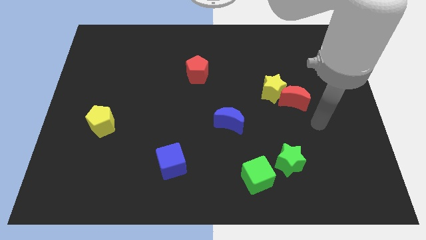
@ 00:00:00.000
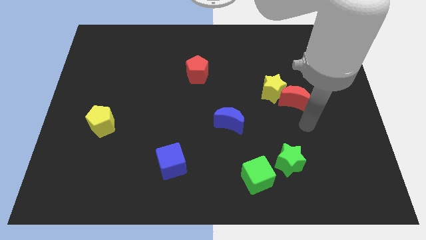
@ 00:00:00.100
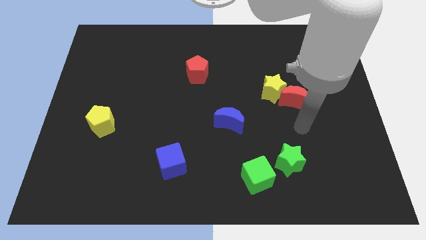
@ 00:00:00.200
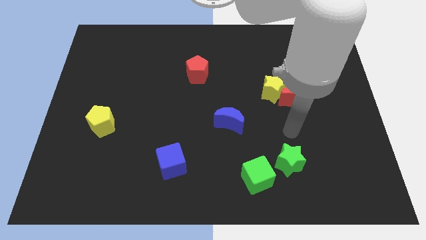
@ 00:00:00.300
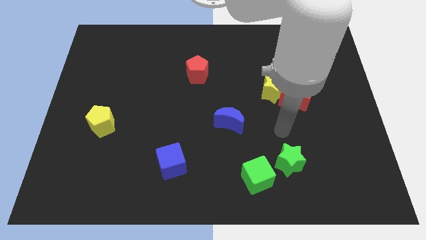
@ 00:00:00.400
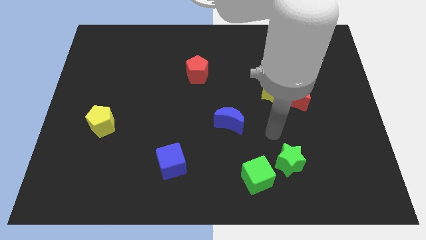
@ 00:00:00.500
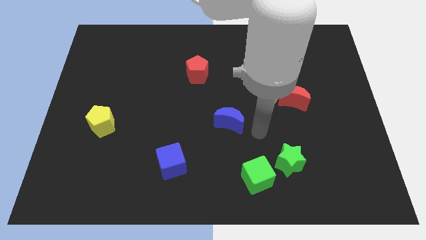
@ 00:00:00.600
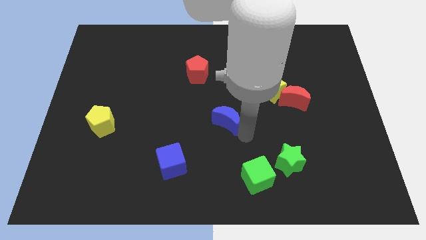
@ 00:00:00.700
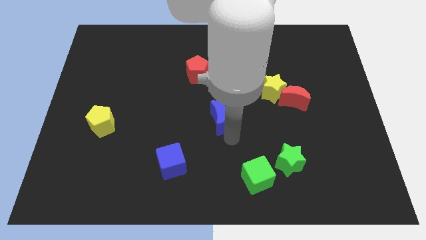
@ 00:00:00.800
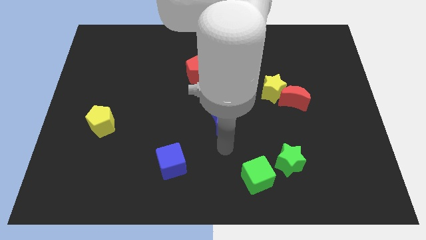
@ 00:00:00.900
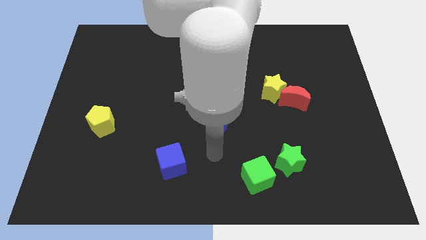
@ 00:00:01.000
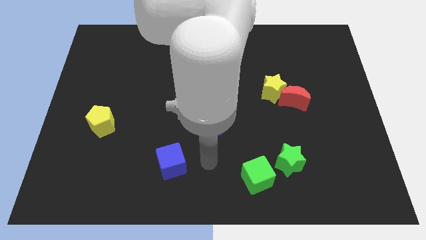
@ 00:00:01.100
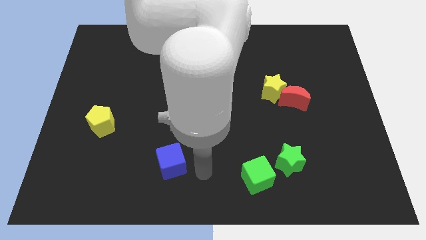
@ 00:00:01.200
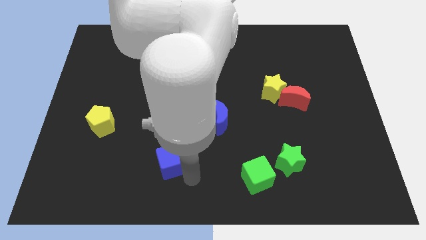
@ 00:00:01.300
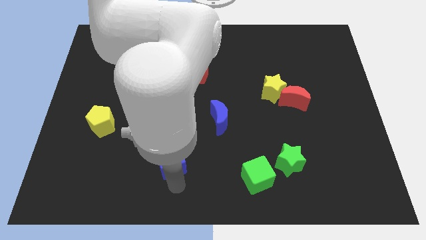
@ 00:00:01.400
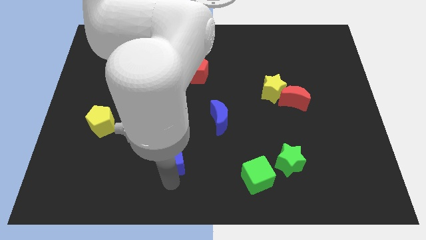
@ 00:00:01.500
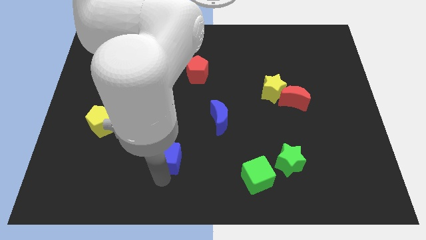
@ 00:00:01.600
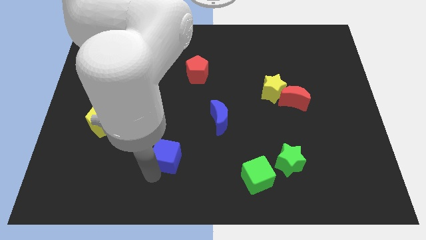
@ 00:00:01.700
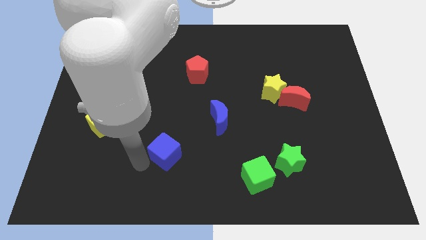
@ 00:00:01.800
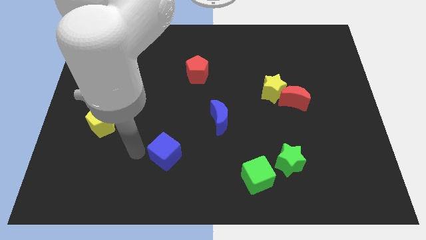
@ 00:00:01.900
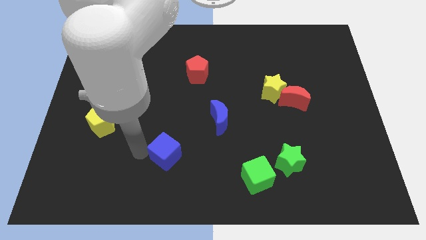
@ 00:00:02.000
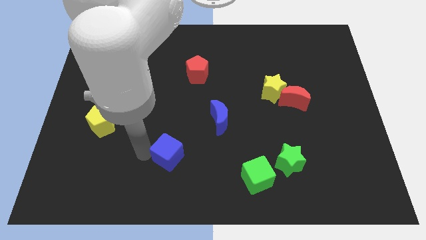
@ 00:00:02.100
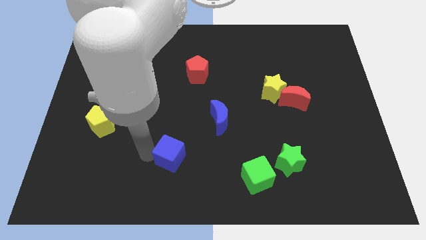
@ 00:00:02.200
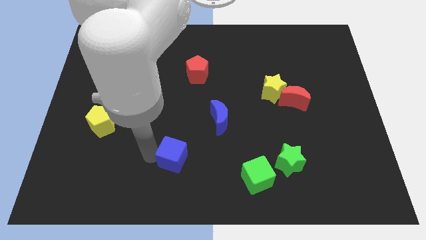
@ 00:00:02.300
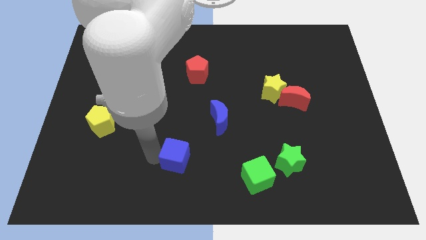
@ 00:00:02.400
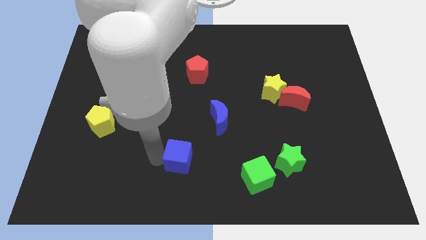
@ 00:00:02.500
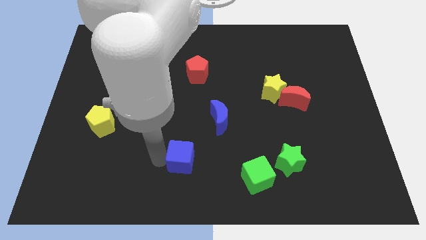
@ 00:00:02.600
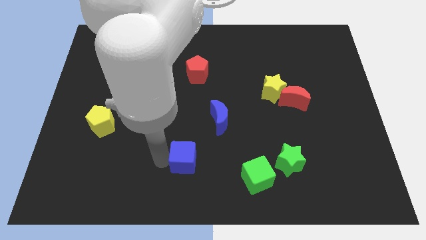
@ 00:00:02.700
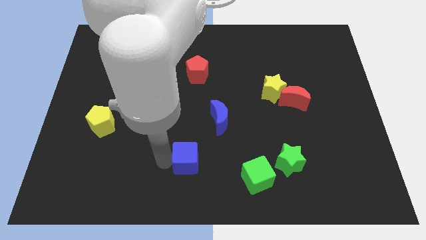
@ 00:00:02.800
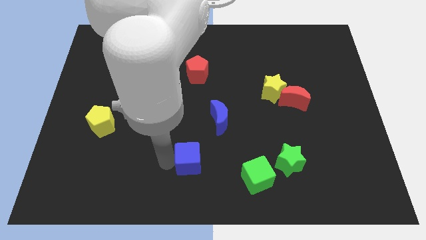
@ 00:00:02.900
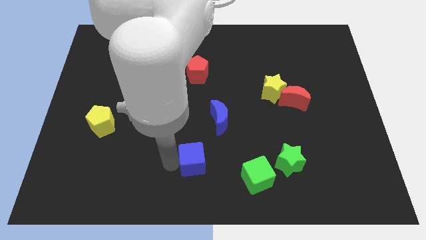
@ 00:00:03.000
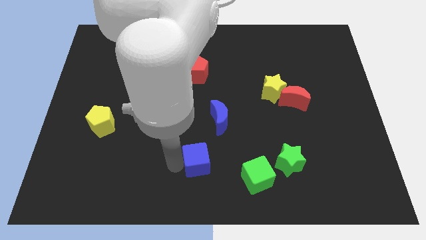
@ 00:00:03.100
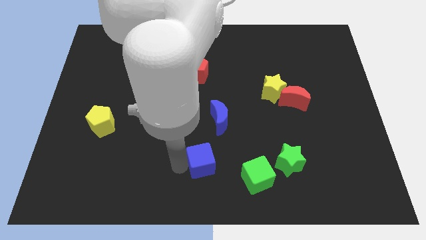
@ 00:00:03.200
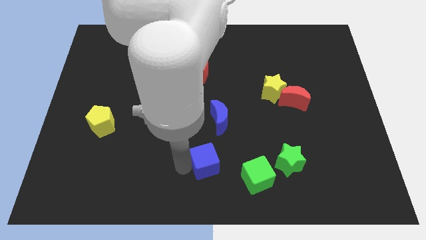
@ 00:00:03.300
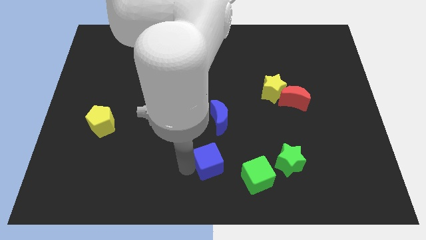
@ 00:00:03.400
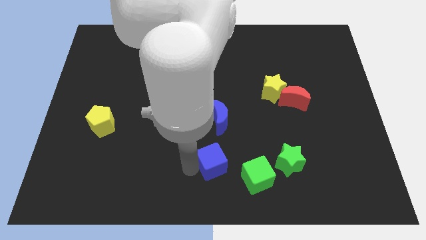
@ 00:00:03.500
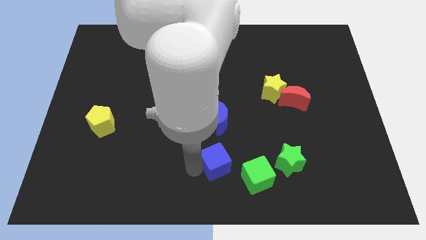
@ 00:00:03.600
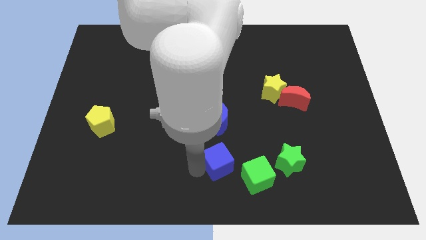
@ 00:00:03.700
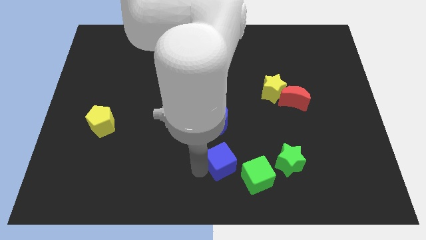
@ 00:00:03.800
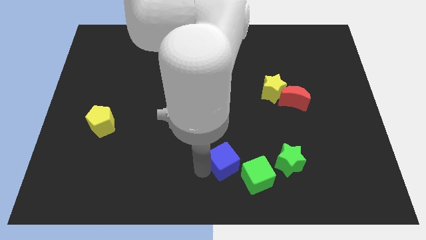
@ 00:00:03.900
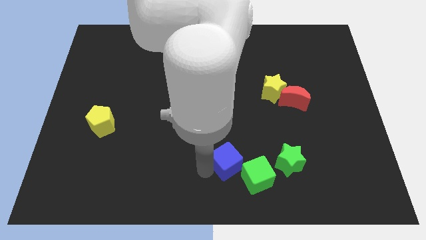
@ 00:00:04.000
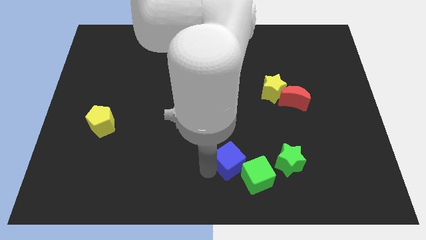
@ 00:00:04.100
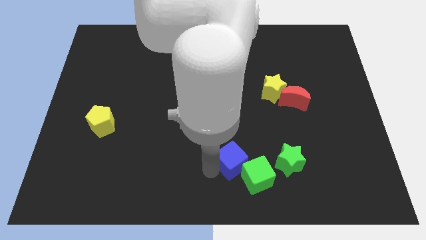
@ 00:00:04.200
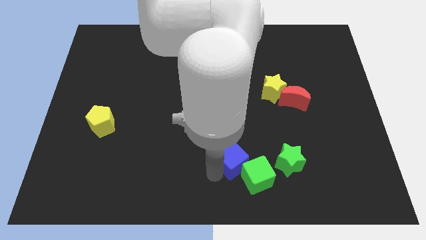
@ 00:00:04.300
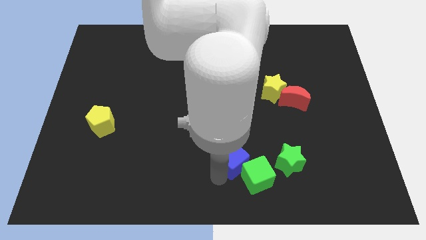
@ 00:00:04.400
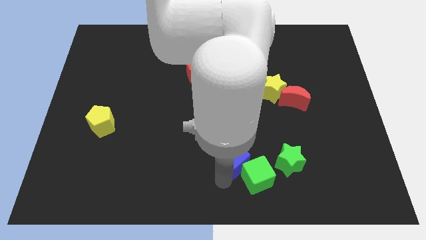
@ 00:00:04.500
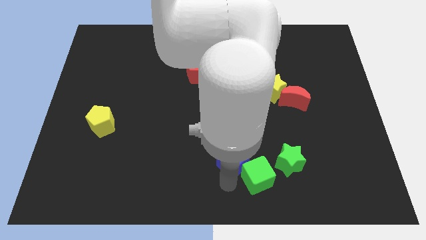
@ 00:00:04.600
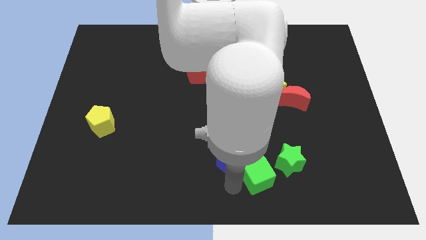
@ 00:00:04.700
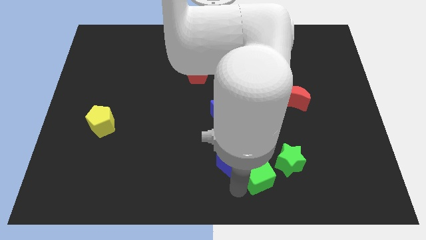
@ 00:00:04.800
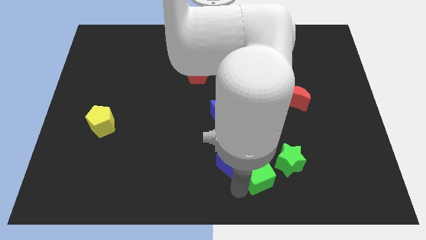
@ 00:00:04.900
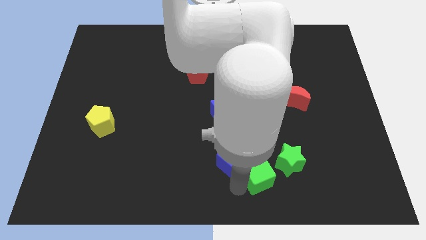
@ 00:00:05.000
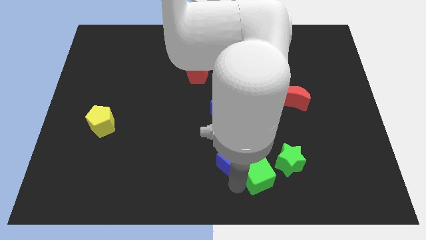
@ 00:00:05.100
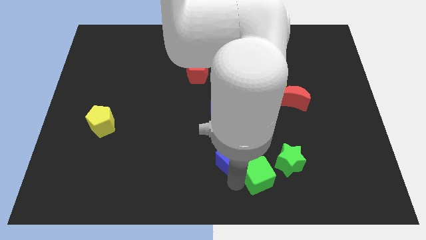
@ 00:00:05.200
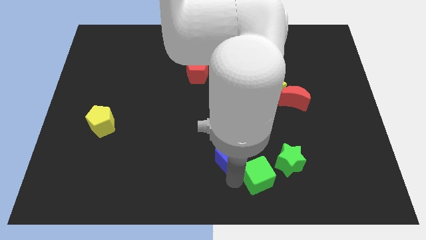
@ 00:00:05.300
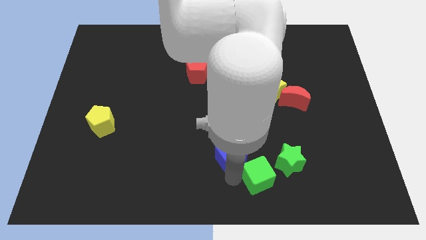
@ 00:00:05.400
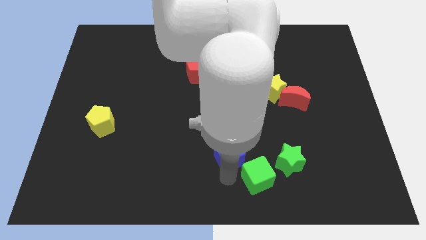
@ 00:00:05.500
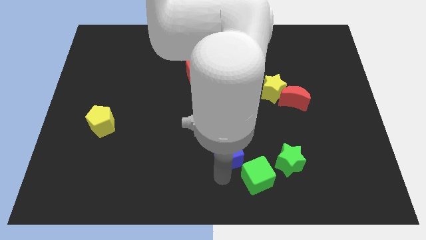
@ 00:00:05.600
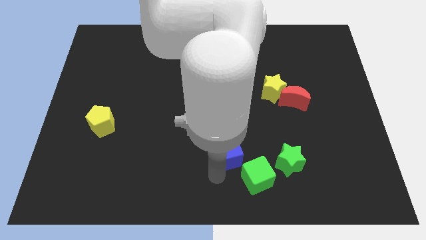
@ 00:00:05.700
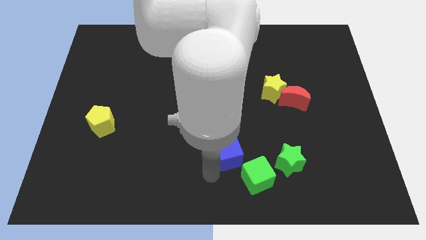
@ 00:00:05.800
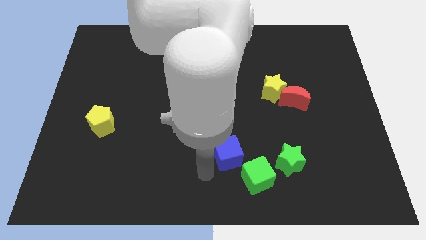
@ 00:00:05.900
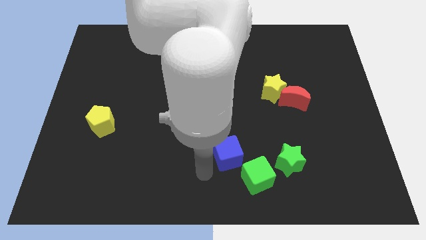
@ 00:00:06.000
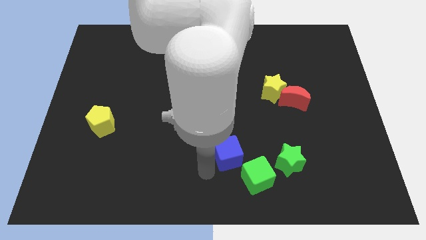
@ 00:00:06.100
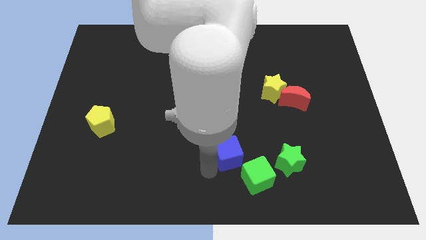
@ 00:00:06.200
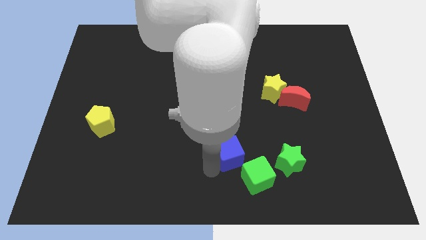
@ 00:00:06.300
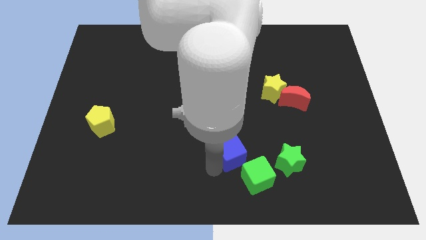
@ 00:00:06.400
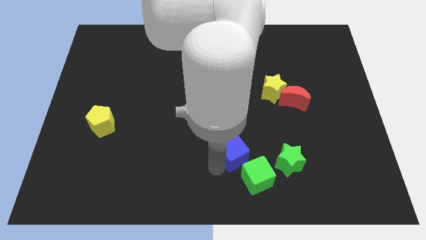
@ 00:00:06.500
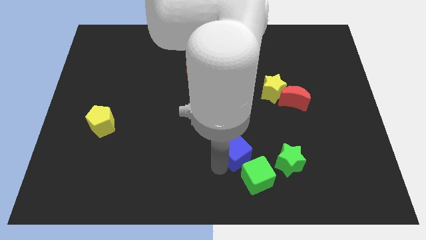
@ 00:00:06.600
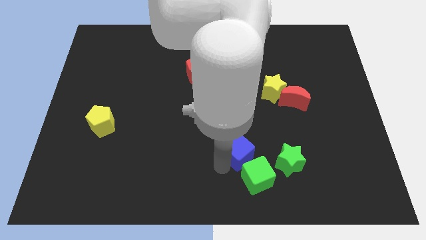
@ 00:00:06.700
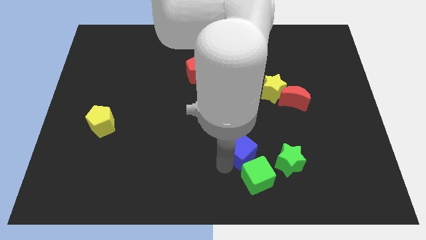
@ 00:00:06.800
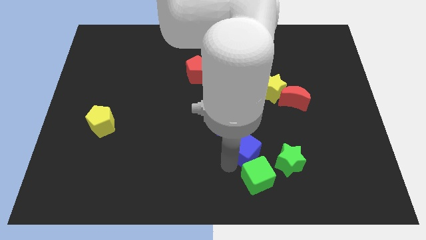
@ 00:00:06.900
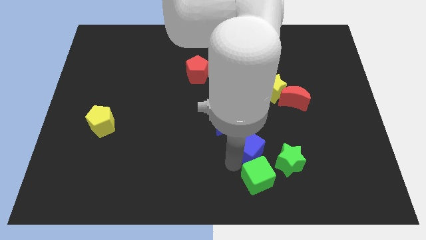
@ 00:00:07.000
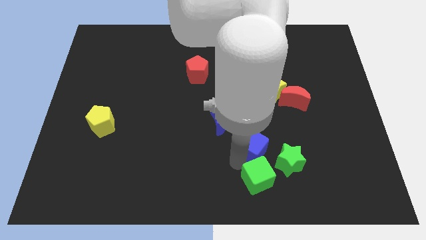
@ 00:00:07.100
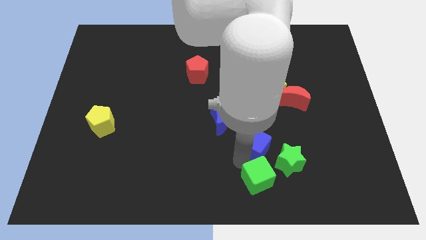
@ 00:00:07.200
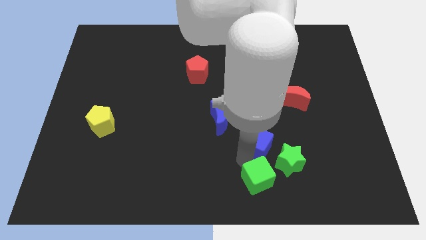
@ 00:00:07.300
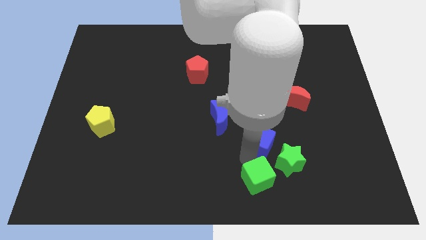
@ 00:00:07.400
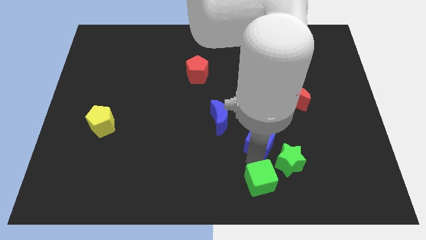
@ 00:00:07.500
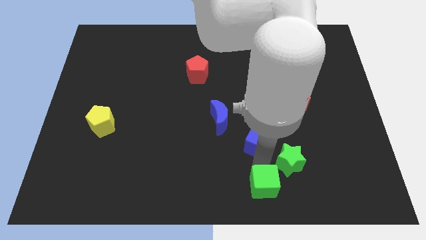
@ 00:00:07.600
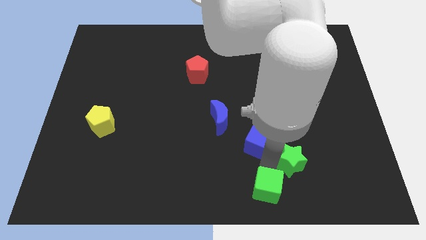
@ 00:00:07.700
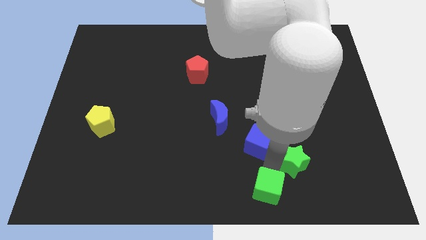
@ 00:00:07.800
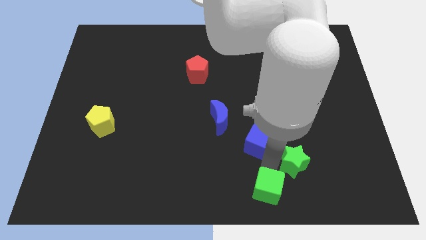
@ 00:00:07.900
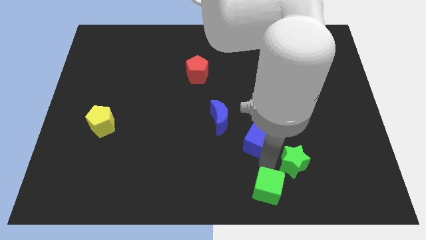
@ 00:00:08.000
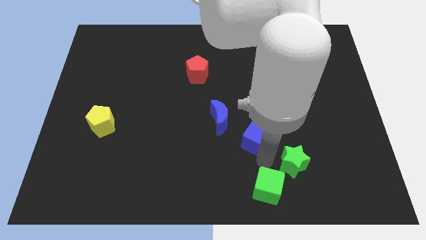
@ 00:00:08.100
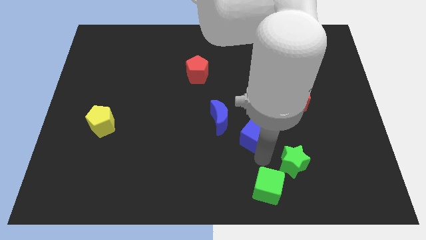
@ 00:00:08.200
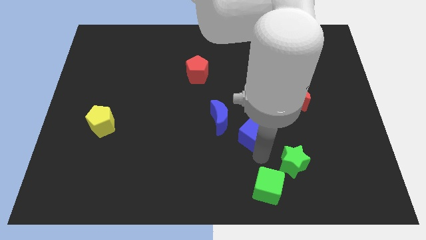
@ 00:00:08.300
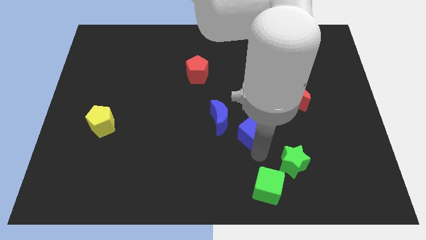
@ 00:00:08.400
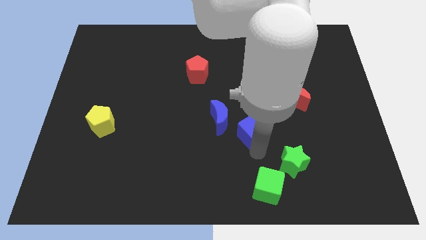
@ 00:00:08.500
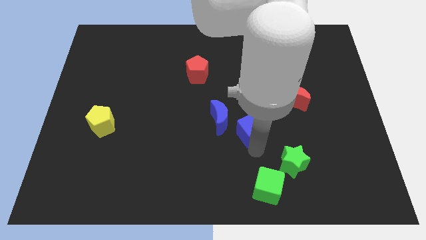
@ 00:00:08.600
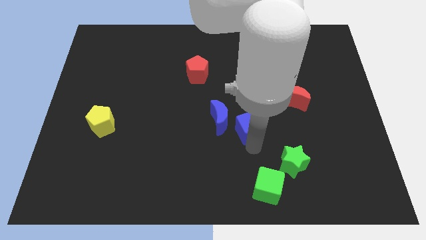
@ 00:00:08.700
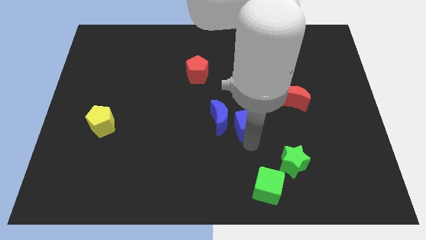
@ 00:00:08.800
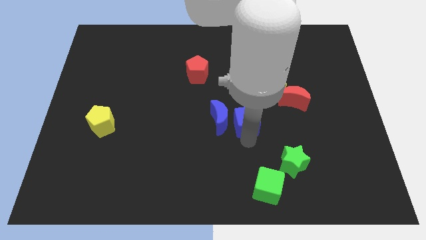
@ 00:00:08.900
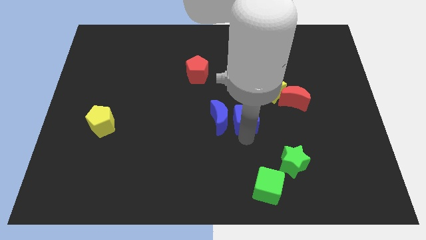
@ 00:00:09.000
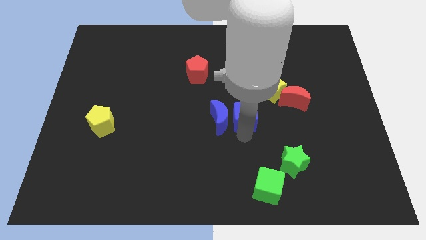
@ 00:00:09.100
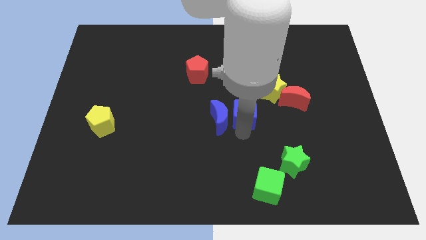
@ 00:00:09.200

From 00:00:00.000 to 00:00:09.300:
slide the blue cube left of the red moon
